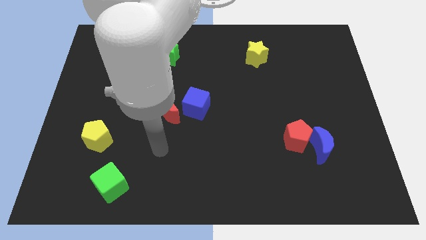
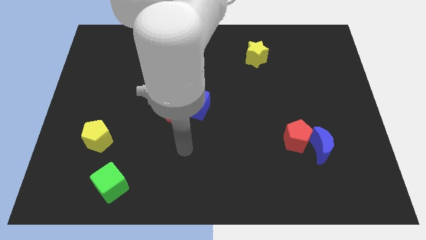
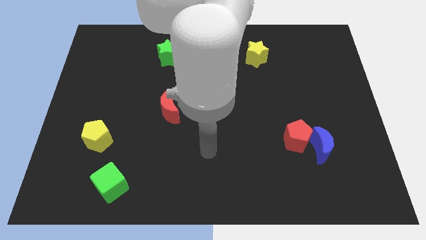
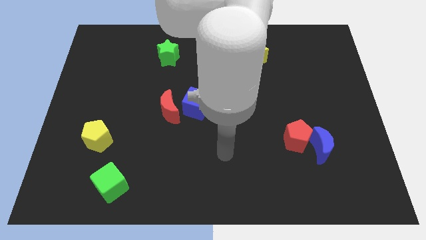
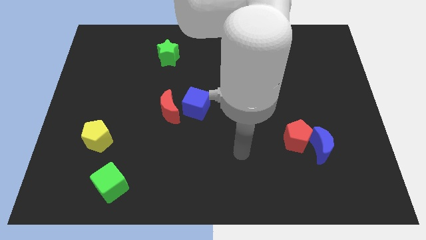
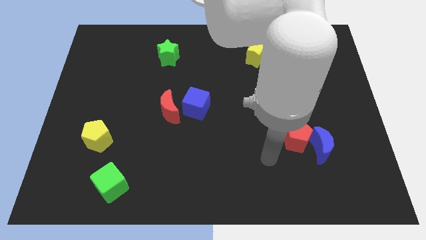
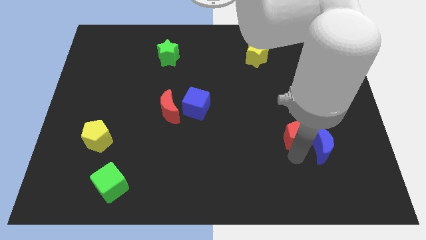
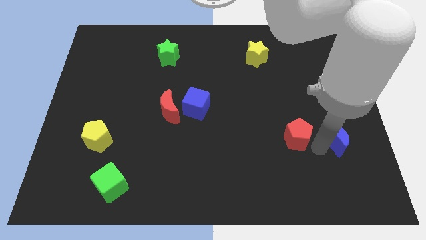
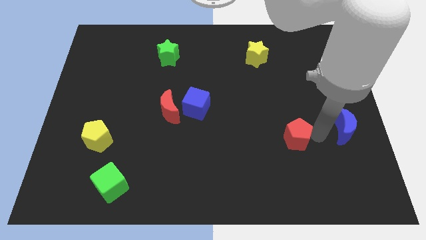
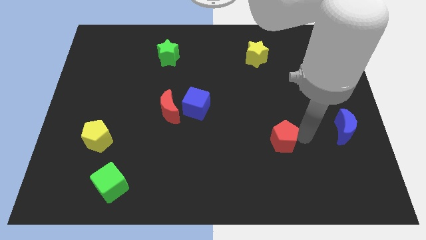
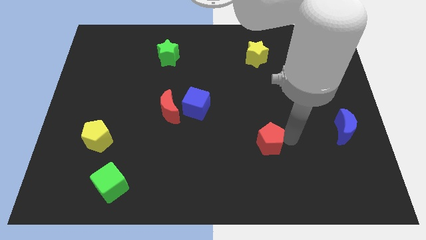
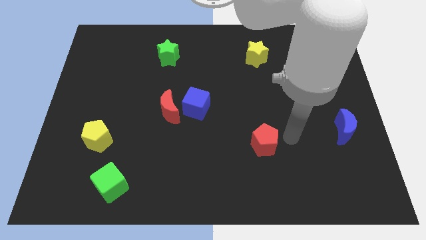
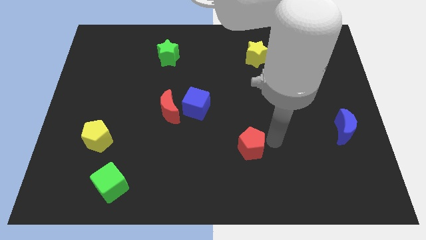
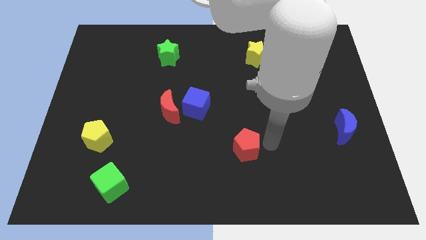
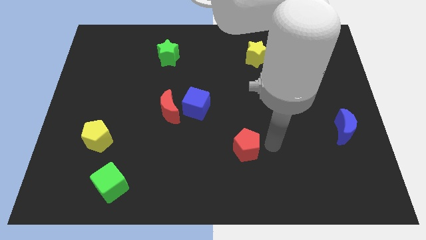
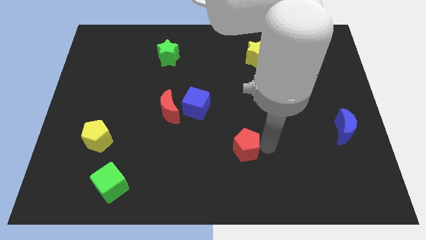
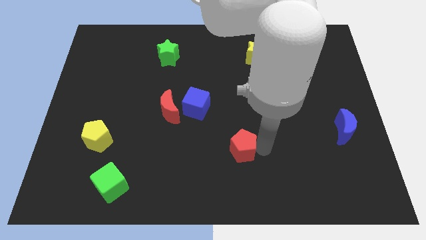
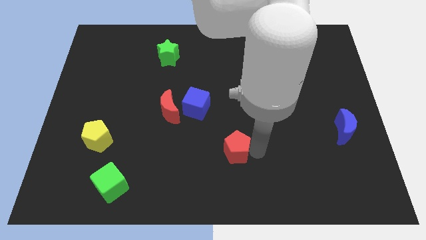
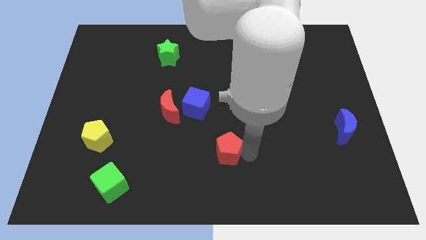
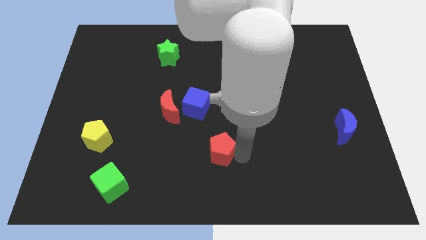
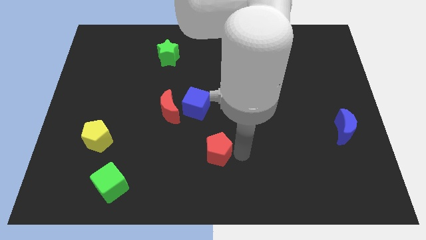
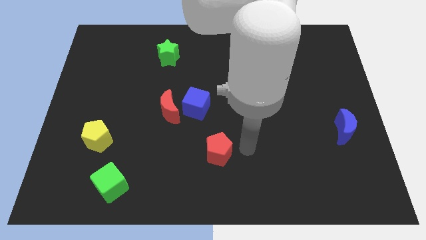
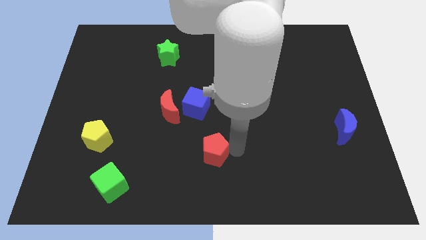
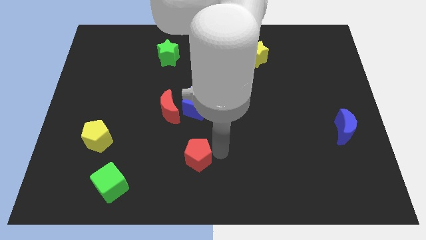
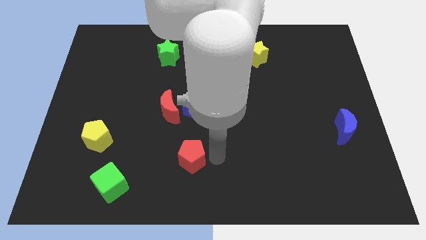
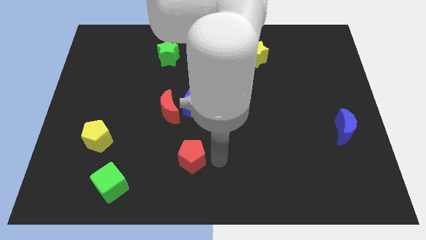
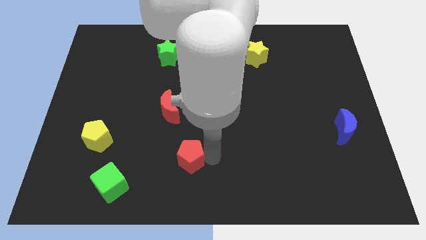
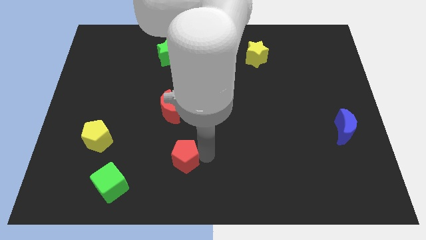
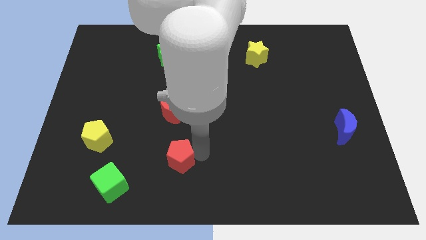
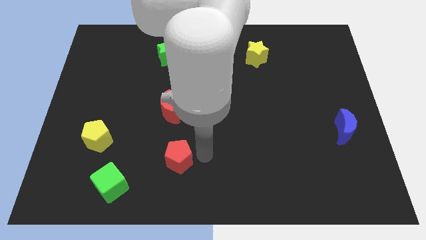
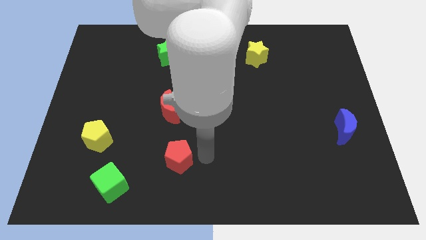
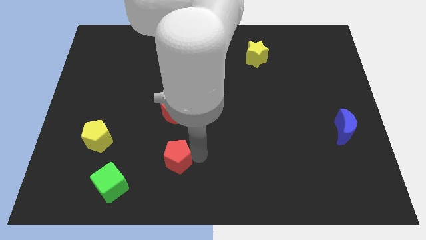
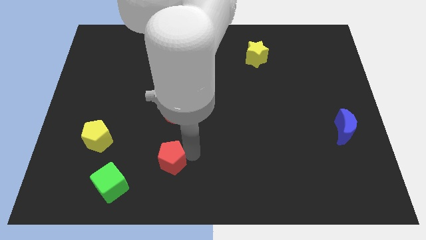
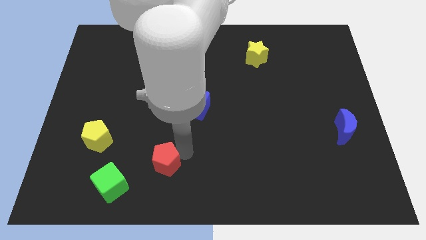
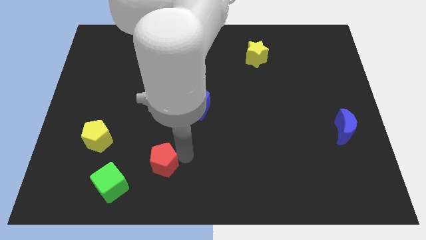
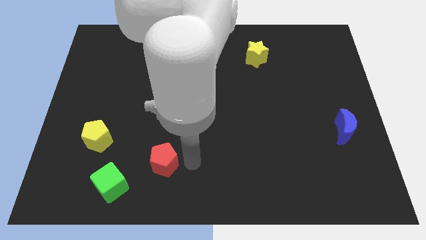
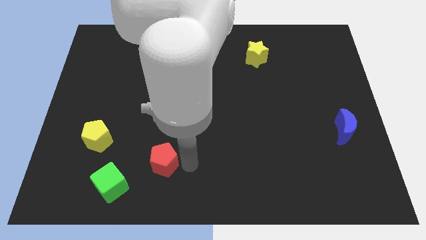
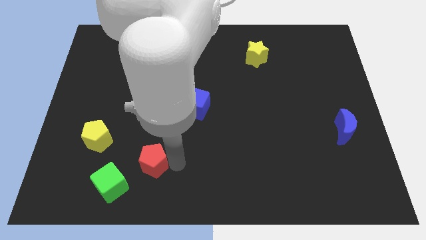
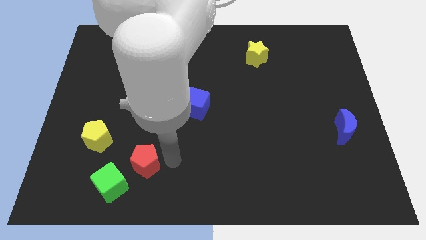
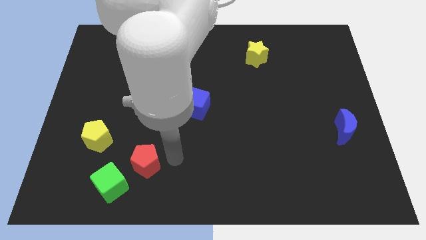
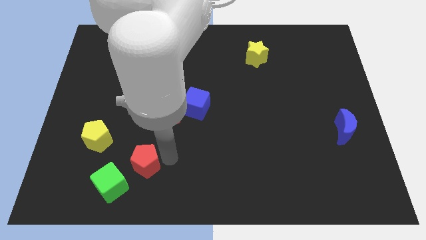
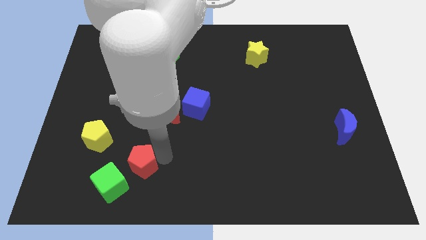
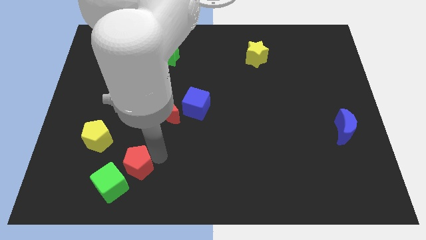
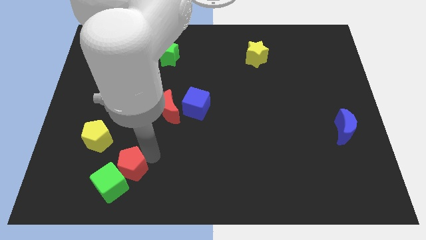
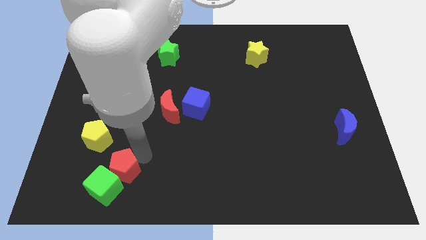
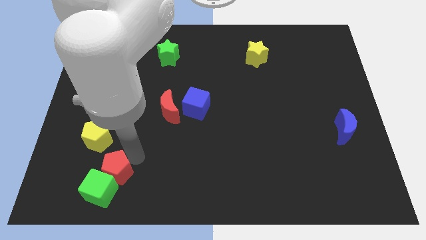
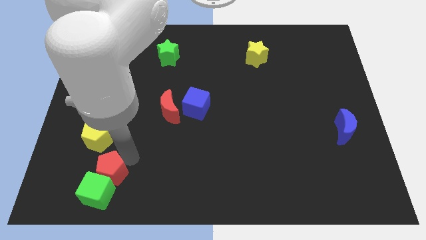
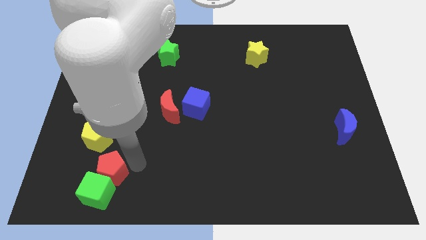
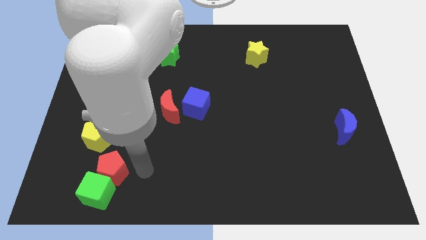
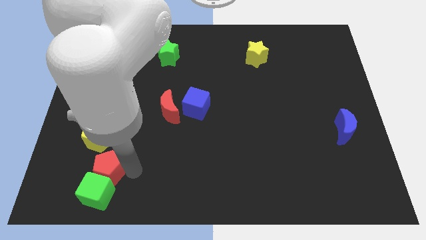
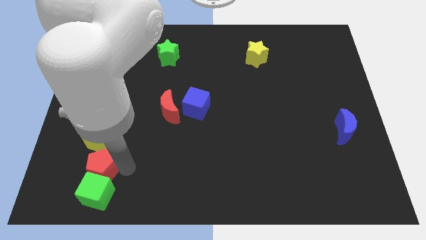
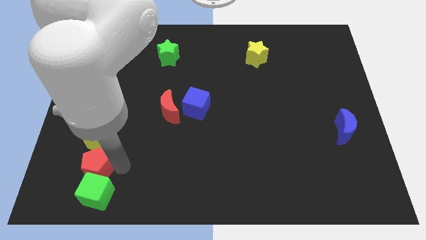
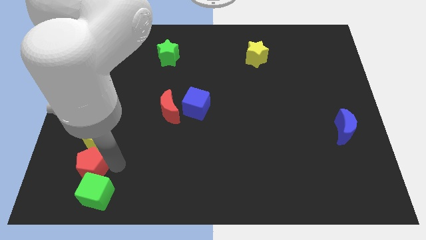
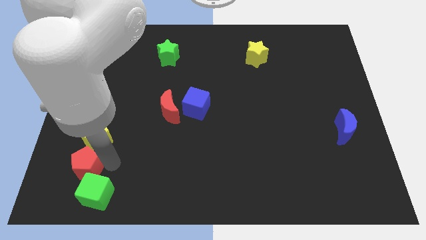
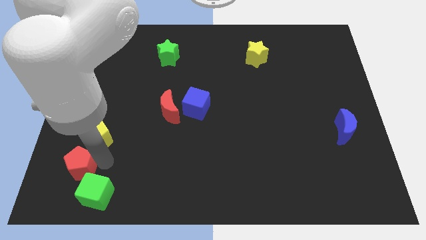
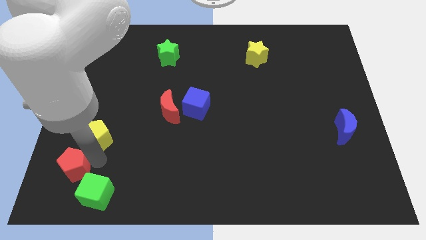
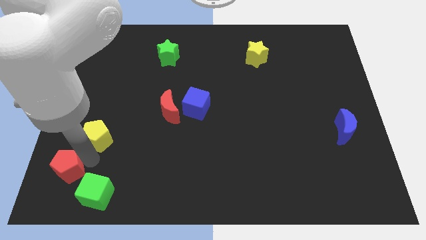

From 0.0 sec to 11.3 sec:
slide the red pentagon to the bottom left corner
